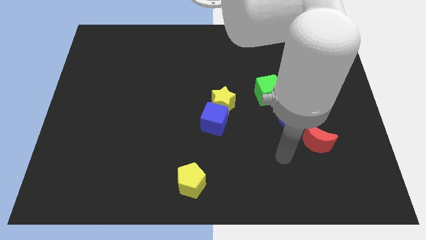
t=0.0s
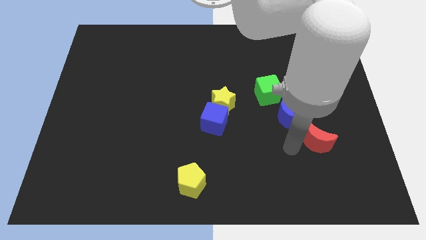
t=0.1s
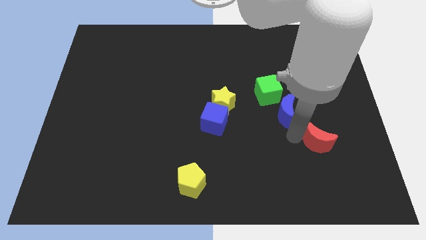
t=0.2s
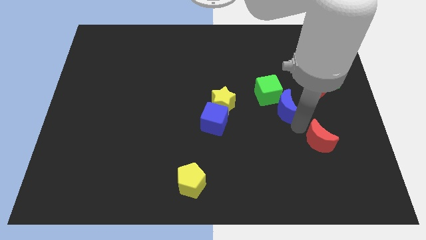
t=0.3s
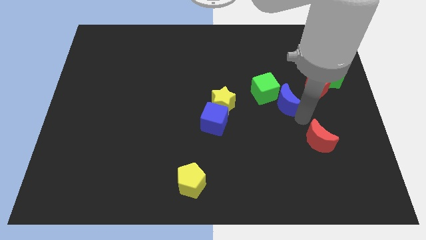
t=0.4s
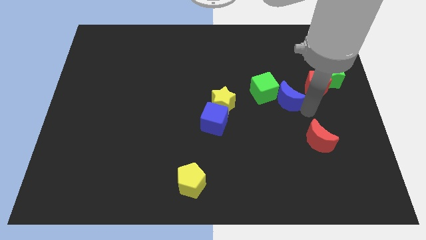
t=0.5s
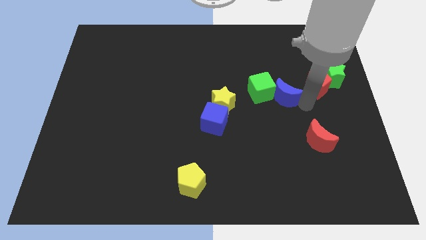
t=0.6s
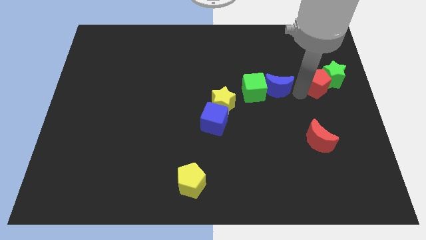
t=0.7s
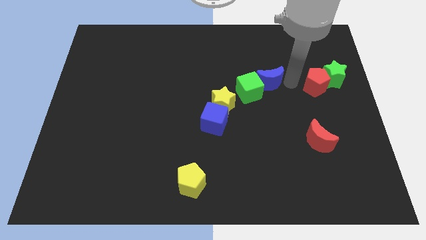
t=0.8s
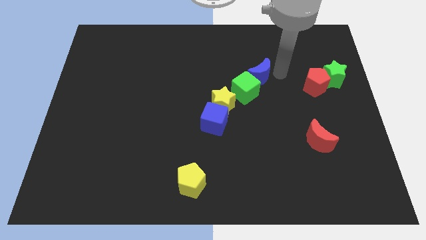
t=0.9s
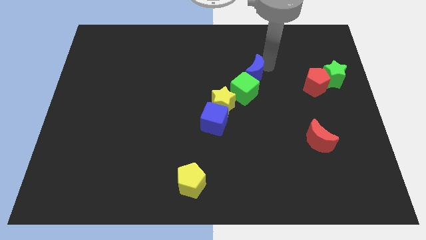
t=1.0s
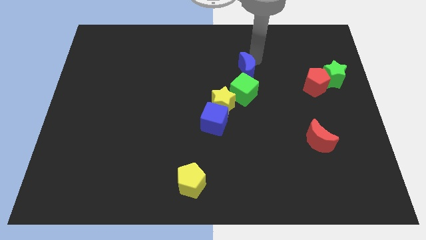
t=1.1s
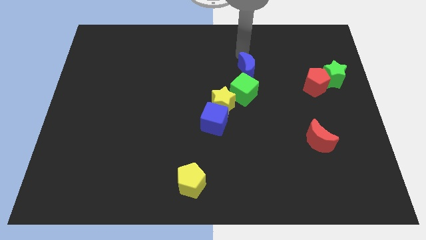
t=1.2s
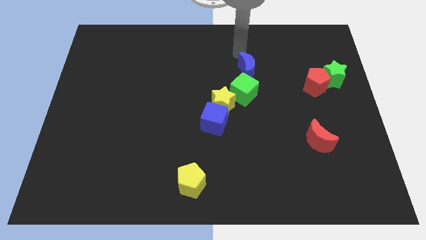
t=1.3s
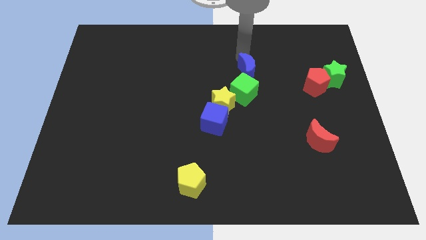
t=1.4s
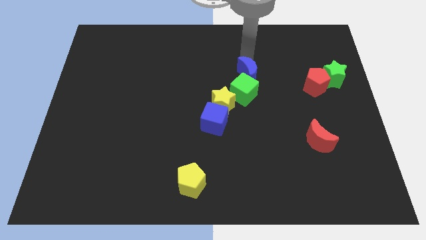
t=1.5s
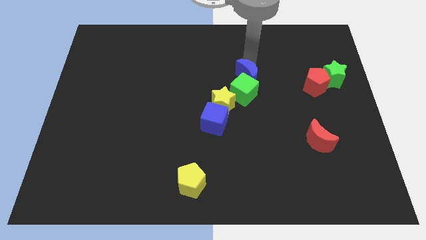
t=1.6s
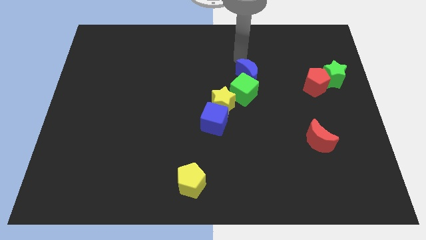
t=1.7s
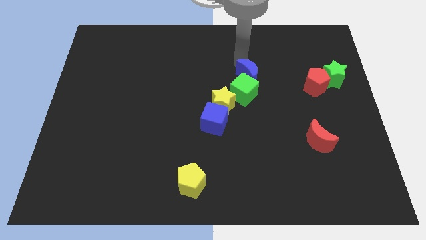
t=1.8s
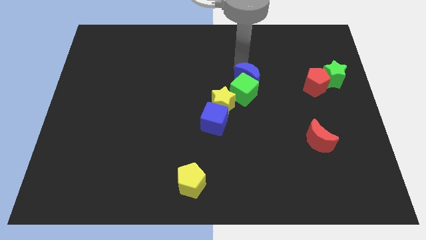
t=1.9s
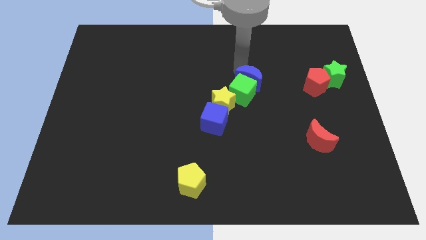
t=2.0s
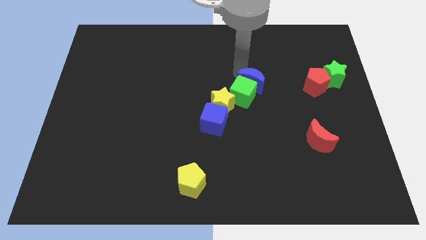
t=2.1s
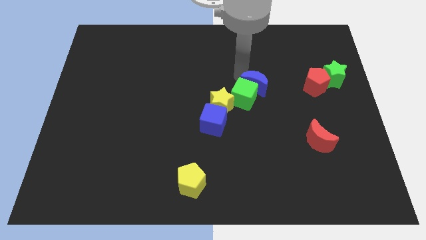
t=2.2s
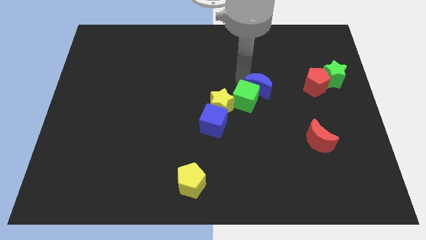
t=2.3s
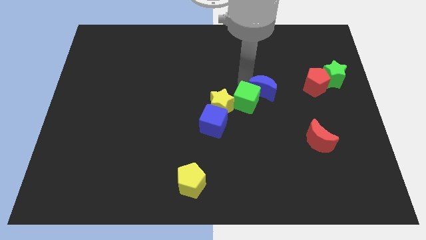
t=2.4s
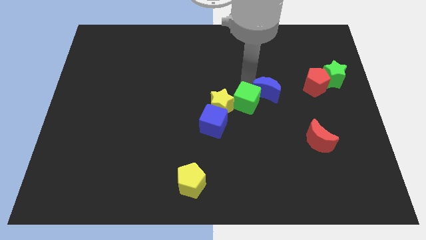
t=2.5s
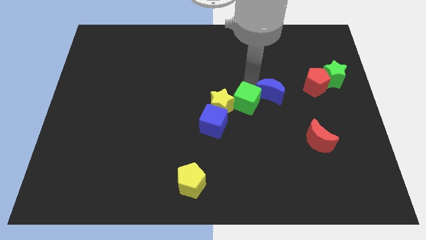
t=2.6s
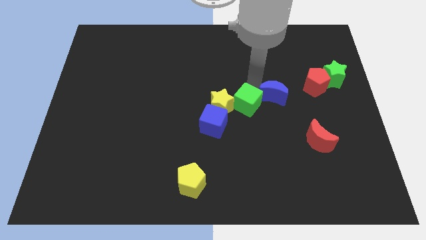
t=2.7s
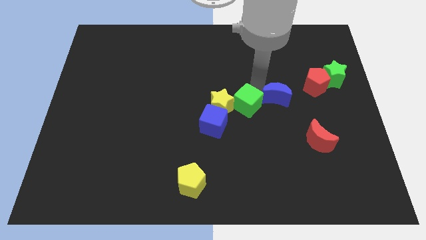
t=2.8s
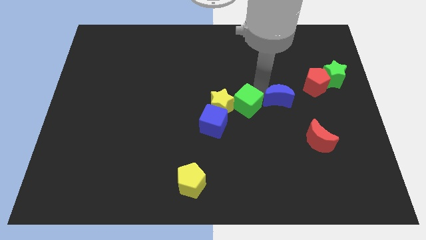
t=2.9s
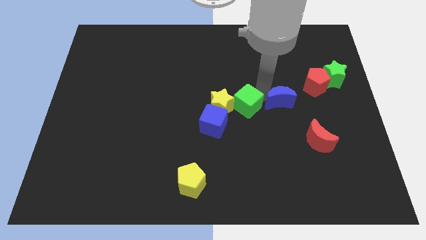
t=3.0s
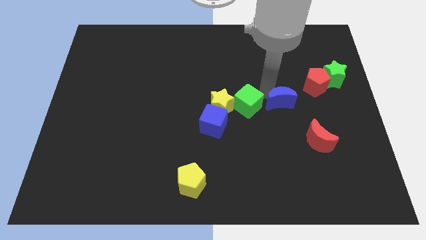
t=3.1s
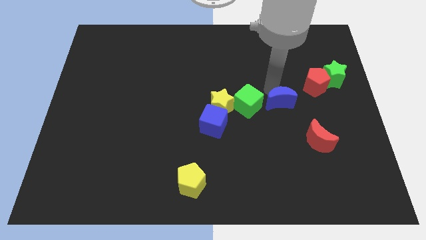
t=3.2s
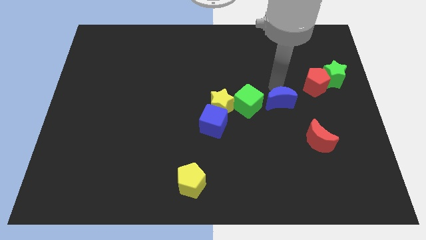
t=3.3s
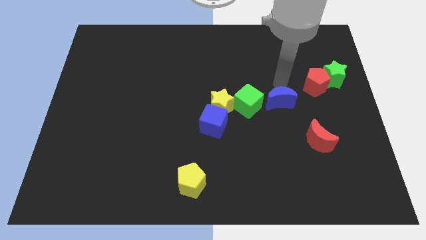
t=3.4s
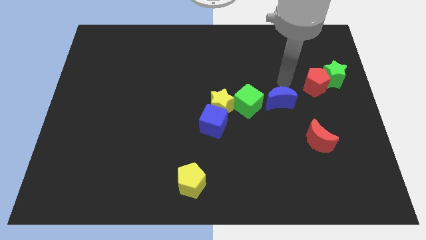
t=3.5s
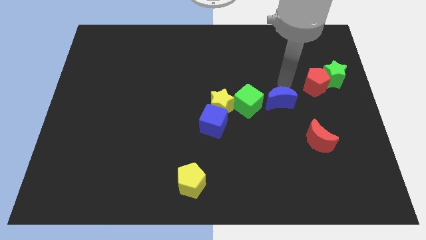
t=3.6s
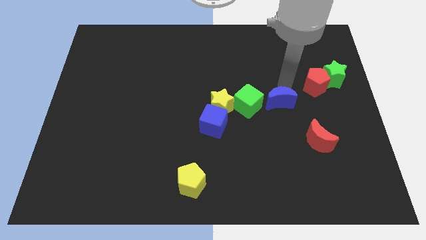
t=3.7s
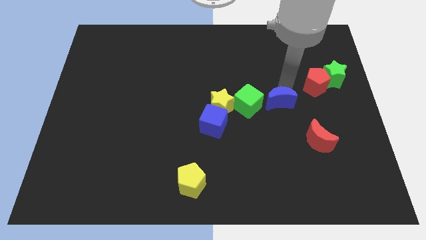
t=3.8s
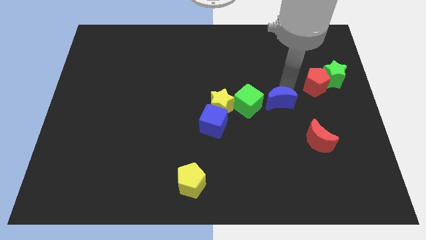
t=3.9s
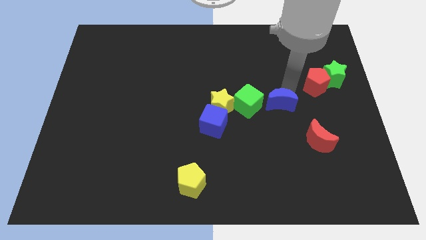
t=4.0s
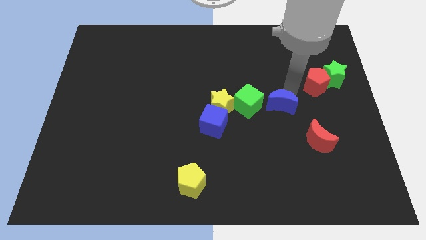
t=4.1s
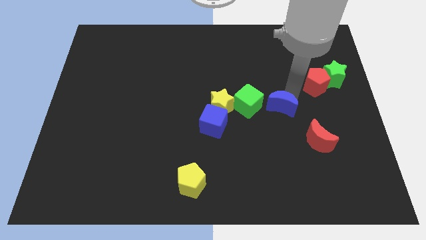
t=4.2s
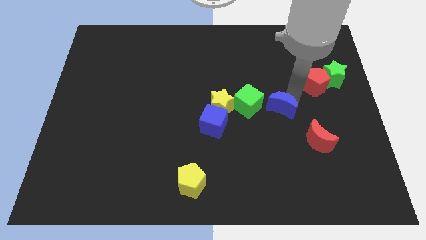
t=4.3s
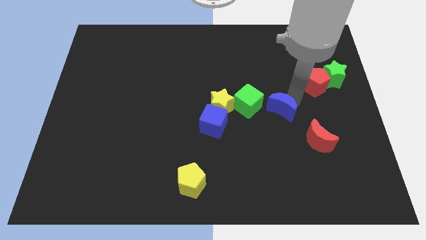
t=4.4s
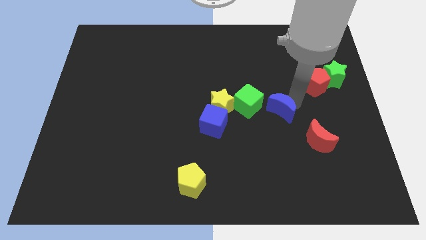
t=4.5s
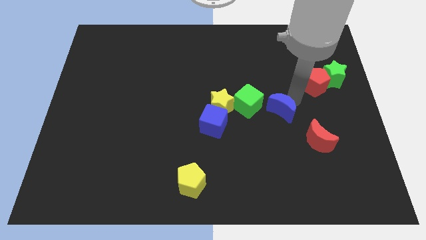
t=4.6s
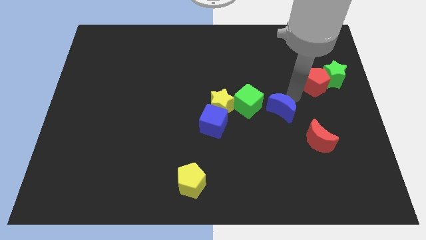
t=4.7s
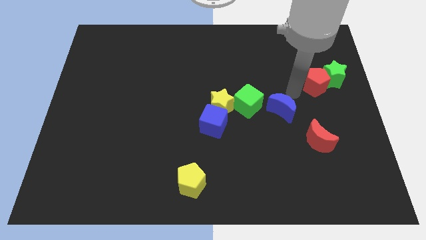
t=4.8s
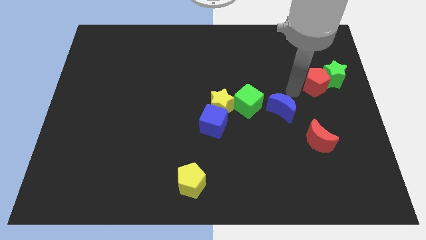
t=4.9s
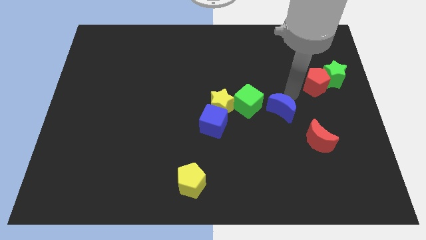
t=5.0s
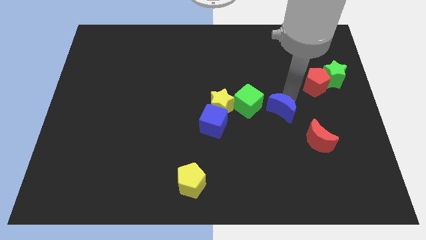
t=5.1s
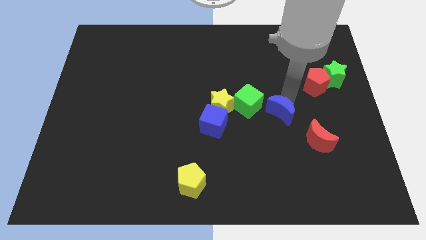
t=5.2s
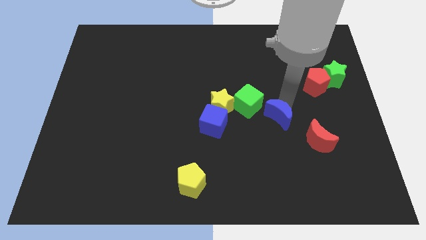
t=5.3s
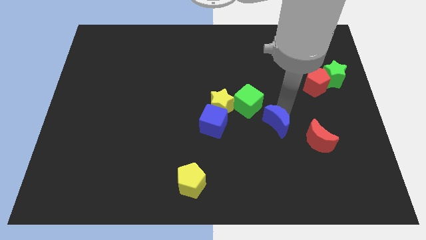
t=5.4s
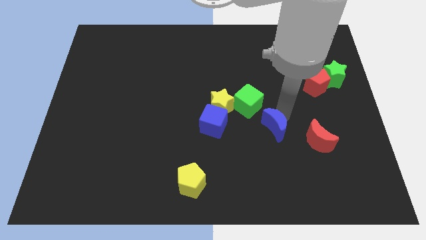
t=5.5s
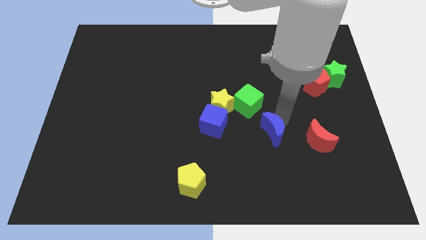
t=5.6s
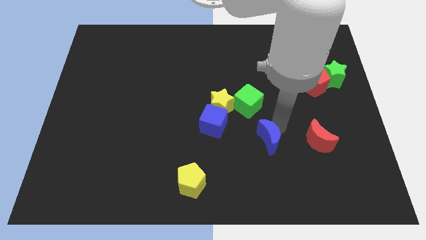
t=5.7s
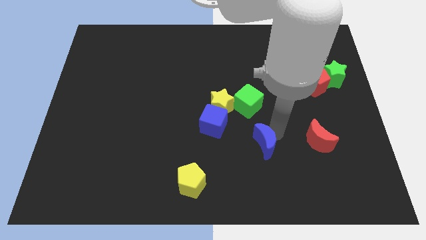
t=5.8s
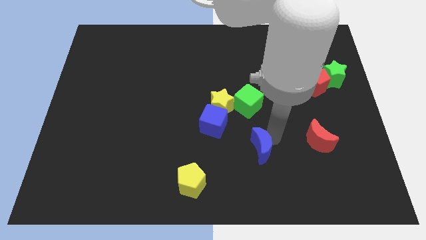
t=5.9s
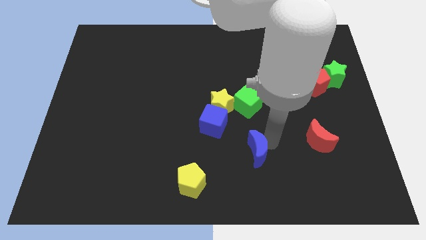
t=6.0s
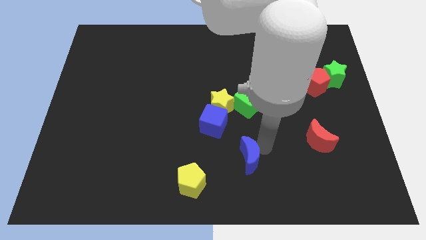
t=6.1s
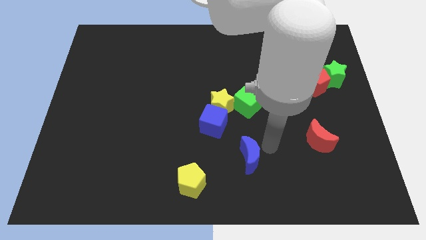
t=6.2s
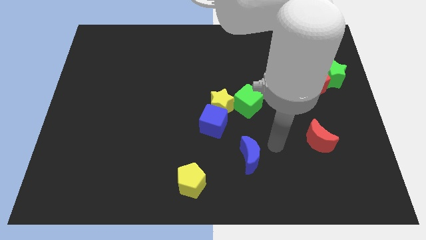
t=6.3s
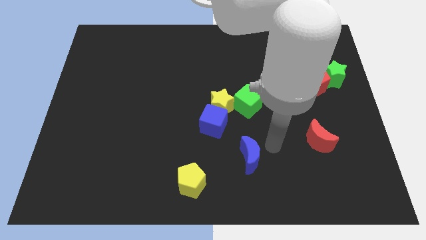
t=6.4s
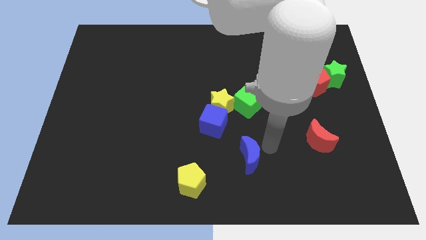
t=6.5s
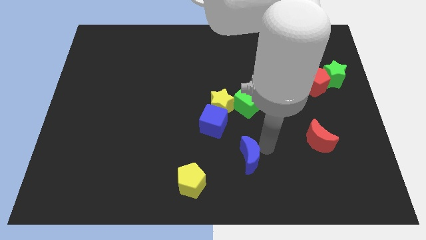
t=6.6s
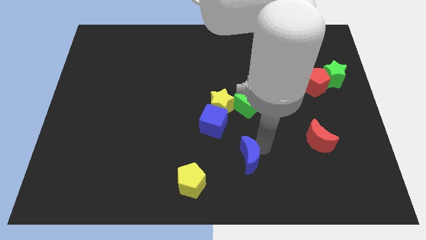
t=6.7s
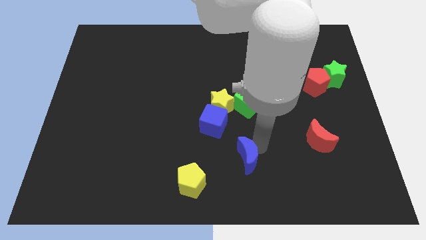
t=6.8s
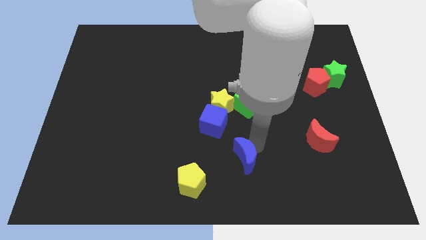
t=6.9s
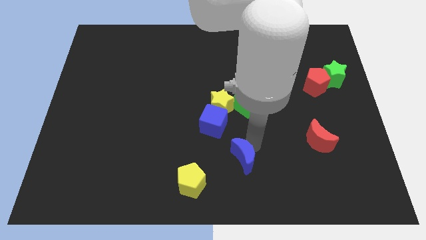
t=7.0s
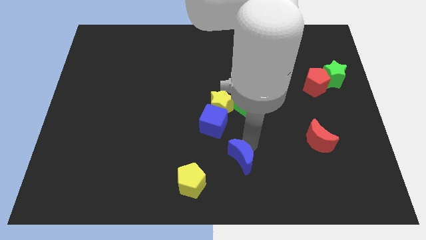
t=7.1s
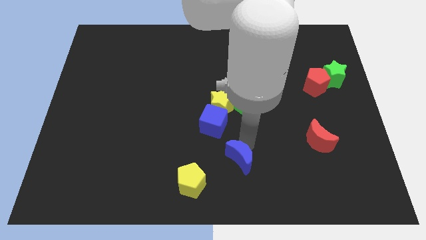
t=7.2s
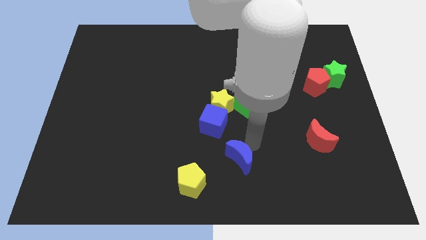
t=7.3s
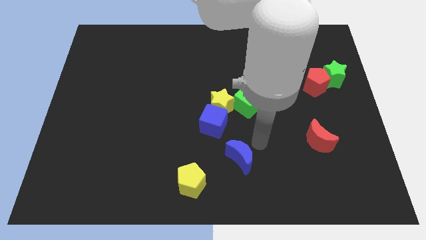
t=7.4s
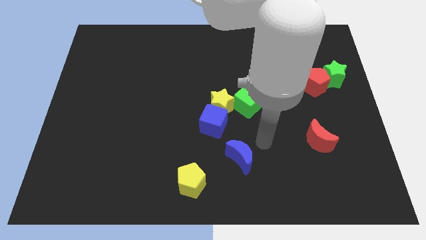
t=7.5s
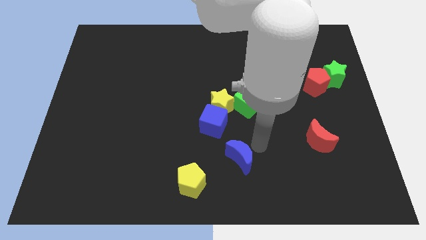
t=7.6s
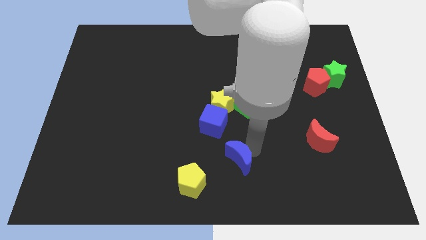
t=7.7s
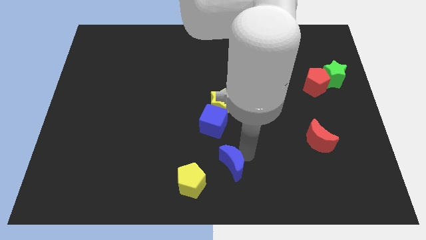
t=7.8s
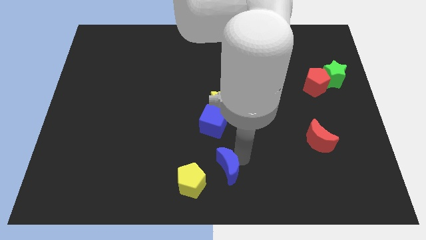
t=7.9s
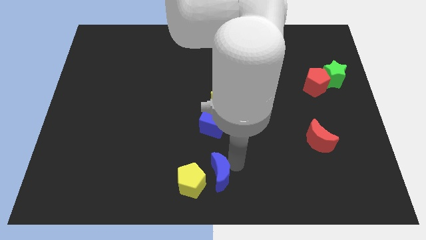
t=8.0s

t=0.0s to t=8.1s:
put the blue moon to the yellow pentagon

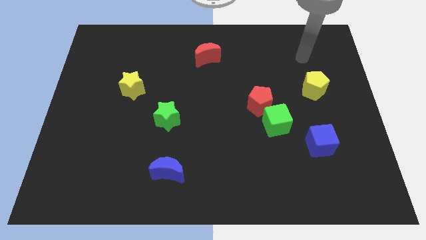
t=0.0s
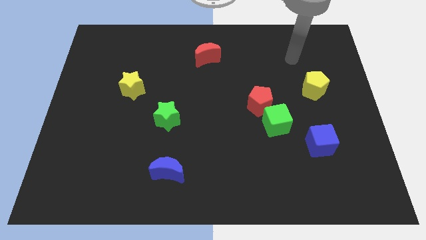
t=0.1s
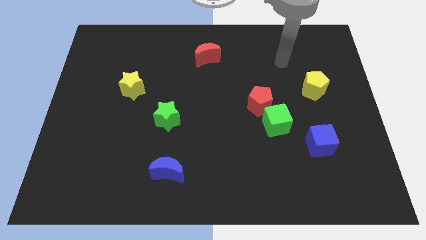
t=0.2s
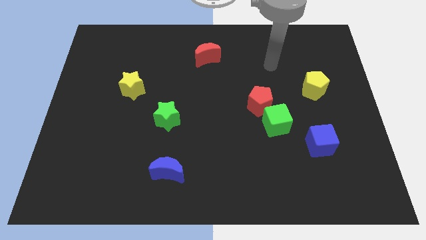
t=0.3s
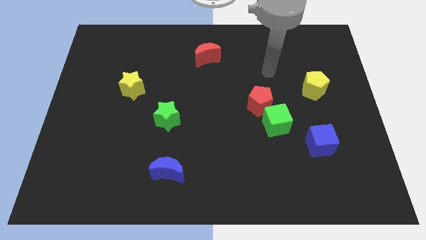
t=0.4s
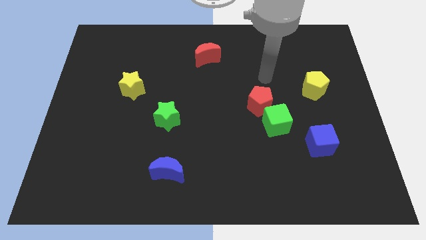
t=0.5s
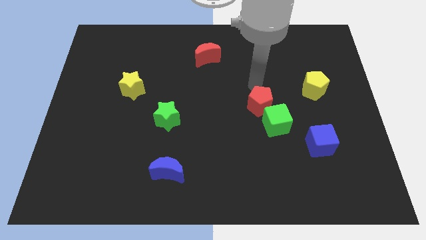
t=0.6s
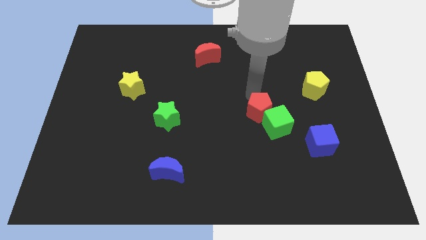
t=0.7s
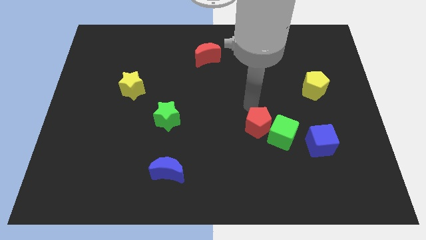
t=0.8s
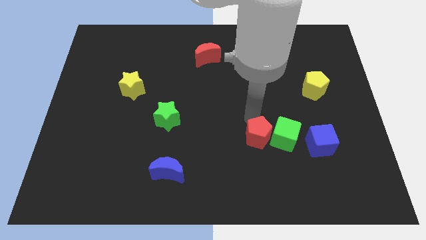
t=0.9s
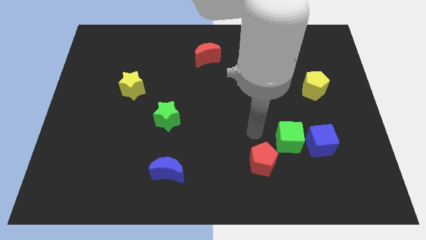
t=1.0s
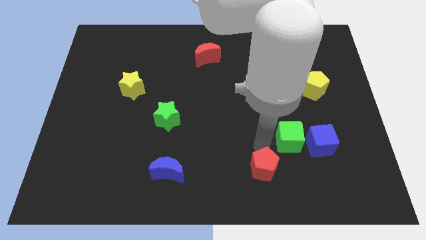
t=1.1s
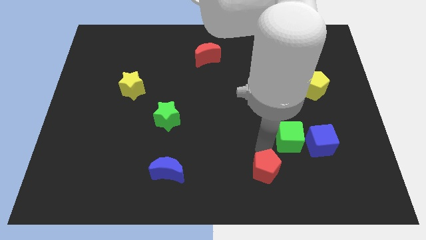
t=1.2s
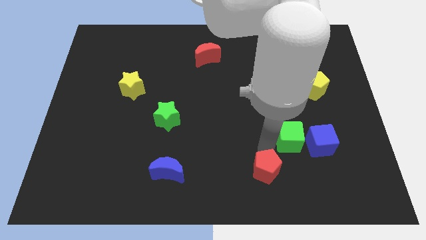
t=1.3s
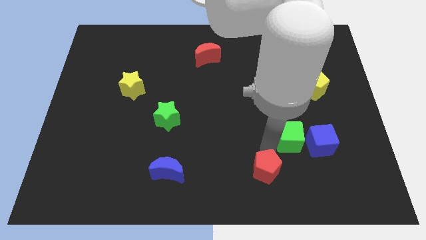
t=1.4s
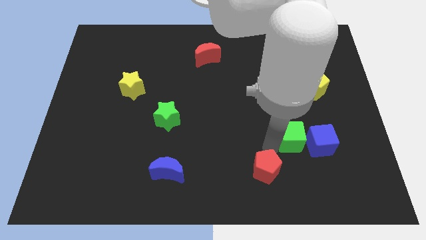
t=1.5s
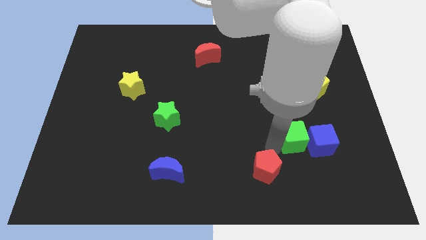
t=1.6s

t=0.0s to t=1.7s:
slide the green cube next to the blue cube
